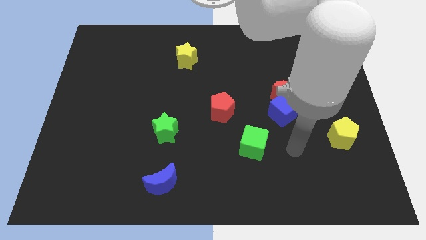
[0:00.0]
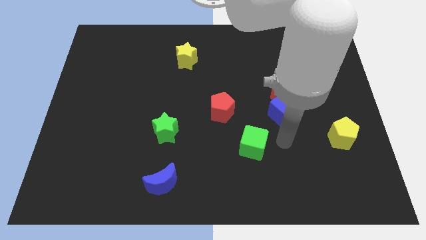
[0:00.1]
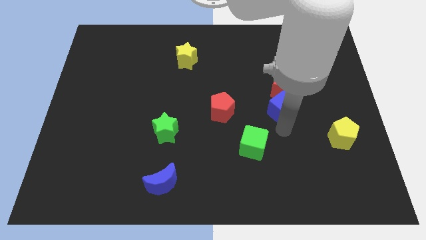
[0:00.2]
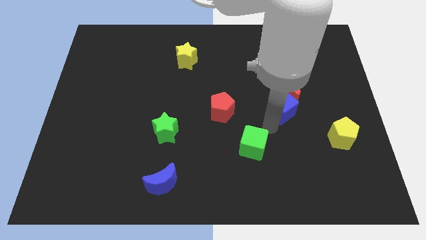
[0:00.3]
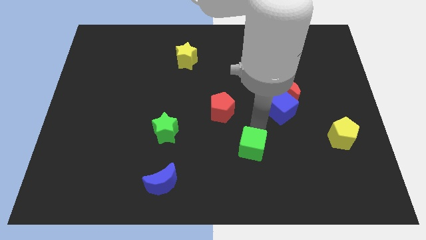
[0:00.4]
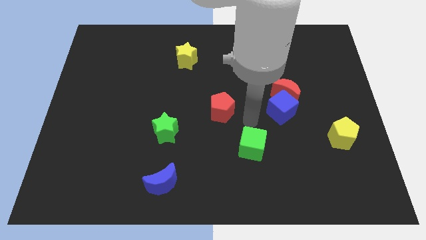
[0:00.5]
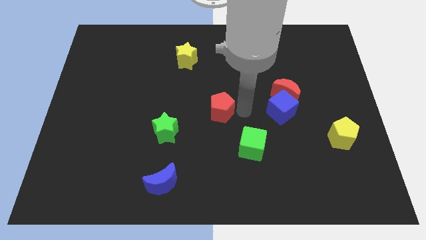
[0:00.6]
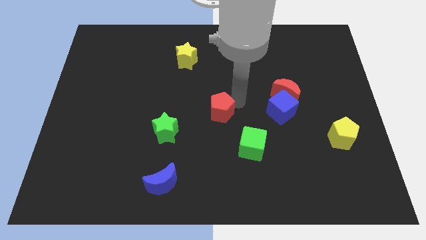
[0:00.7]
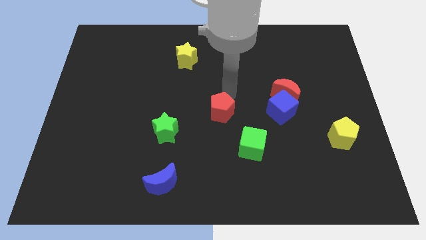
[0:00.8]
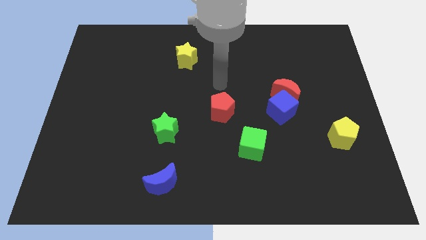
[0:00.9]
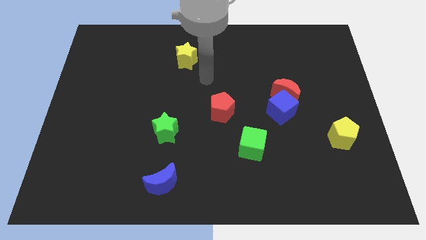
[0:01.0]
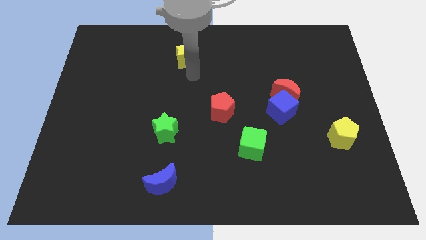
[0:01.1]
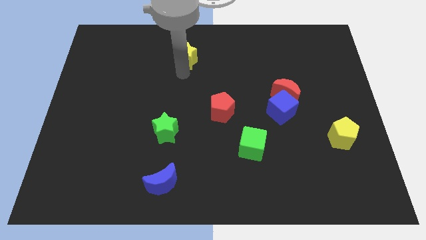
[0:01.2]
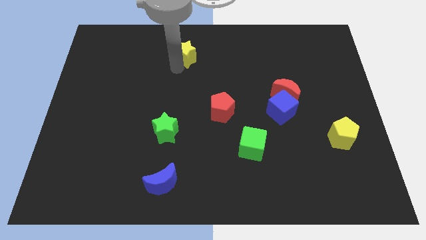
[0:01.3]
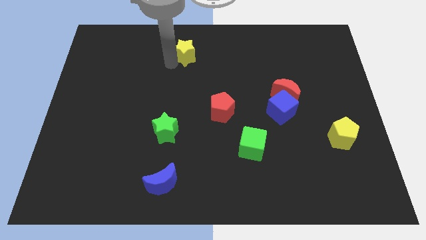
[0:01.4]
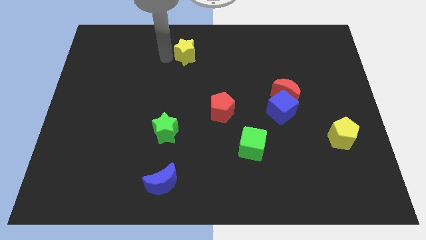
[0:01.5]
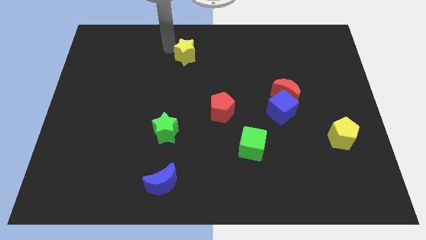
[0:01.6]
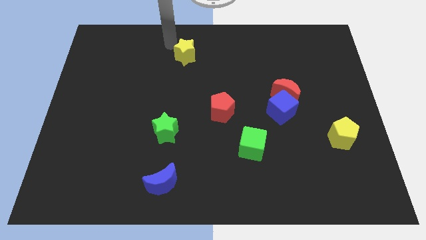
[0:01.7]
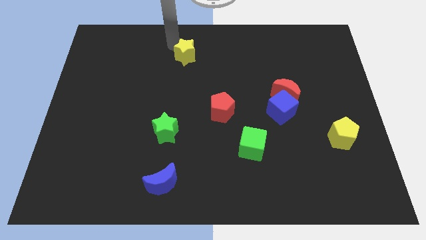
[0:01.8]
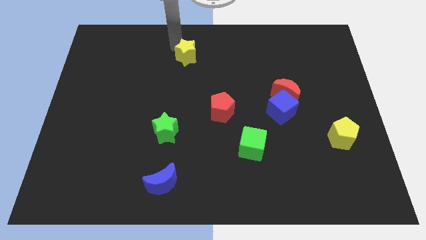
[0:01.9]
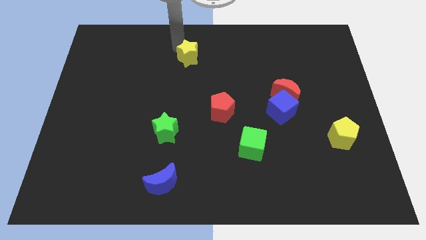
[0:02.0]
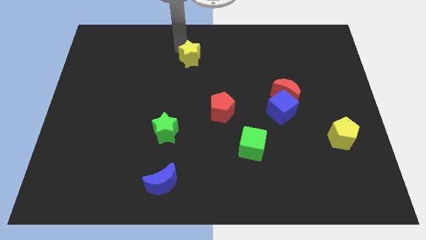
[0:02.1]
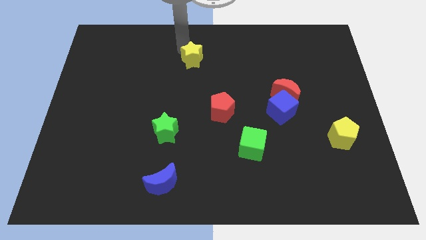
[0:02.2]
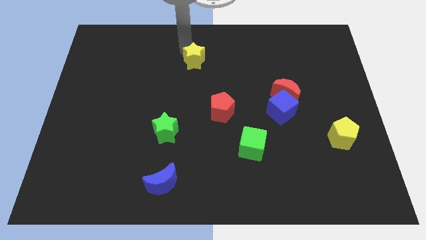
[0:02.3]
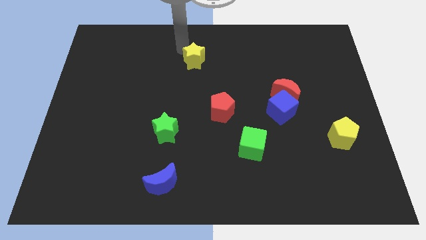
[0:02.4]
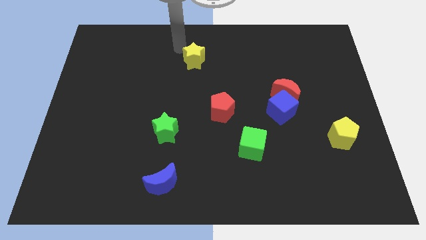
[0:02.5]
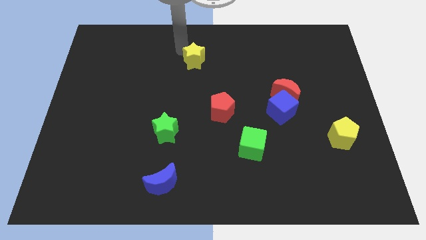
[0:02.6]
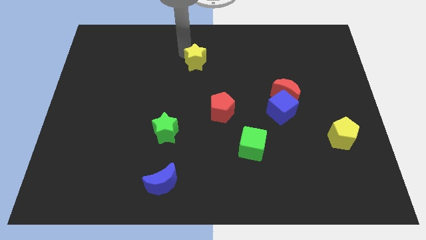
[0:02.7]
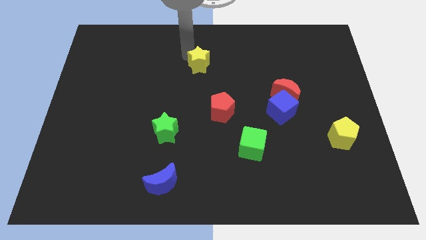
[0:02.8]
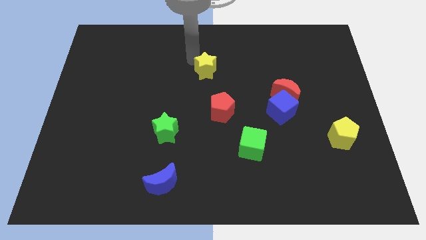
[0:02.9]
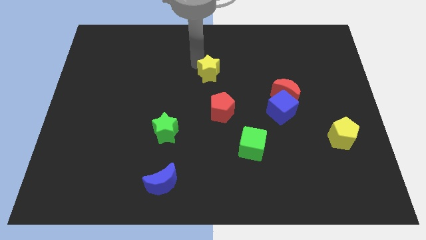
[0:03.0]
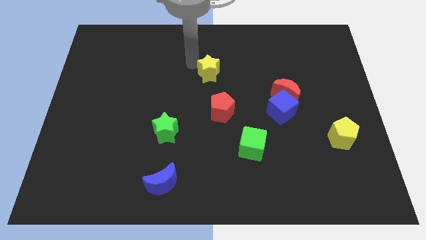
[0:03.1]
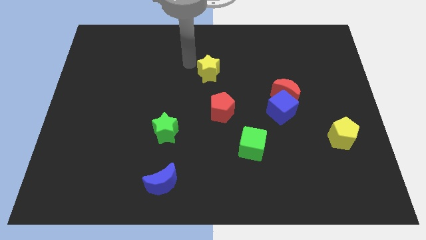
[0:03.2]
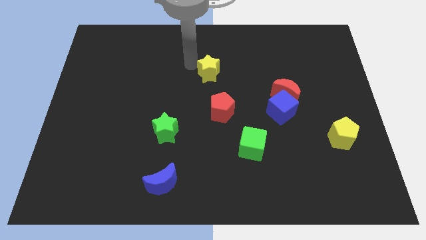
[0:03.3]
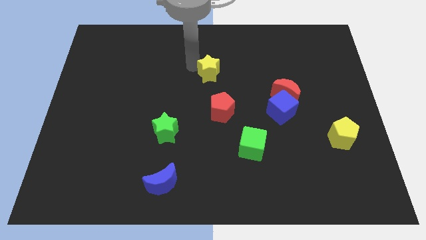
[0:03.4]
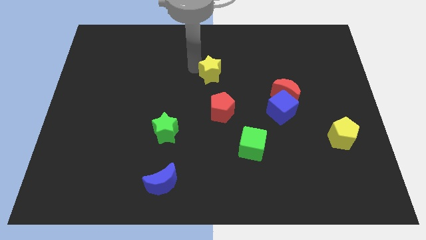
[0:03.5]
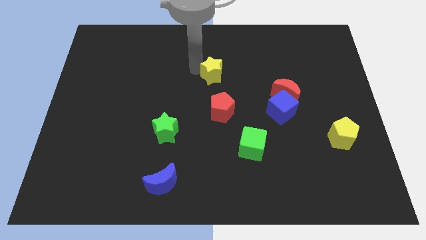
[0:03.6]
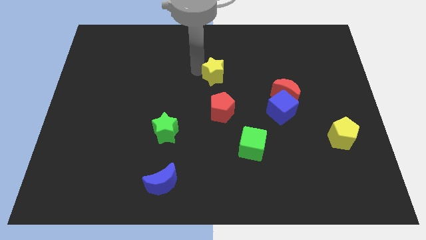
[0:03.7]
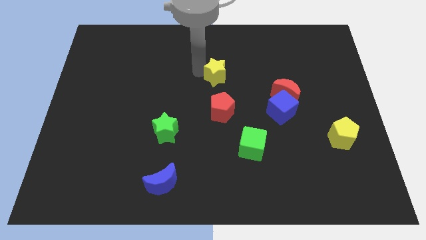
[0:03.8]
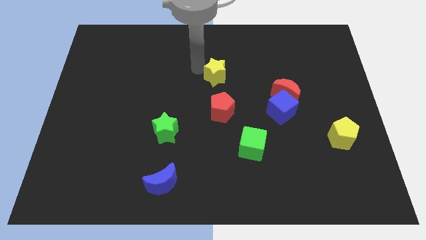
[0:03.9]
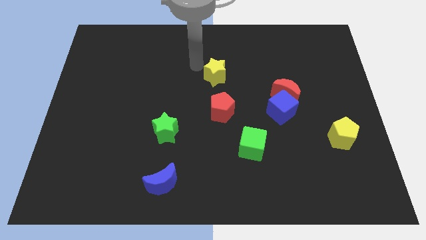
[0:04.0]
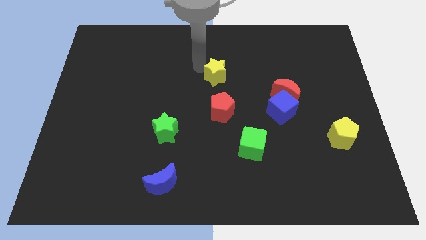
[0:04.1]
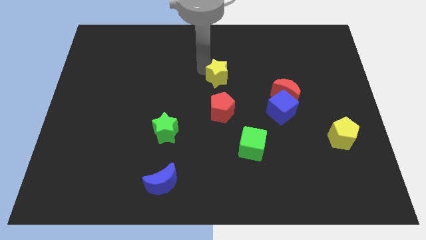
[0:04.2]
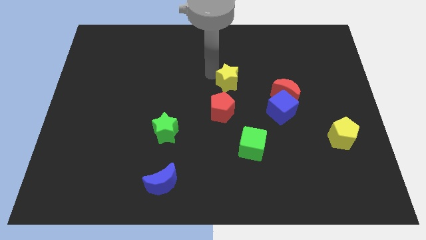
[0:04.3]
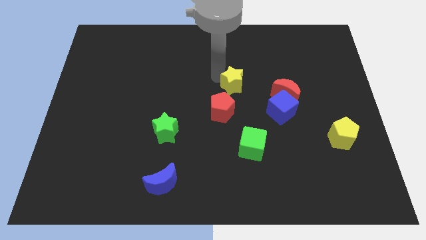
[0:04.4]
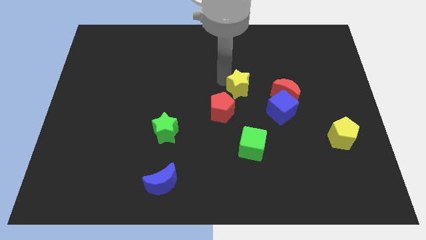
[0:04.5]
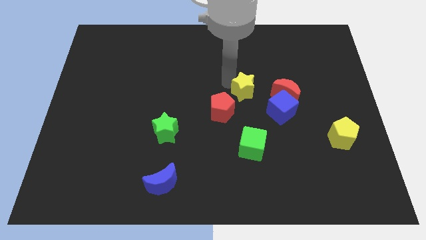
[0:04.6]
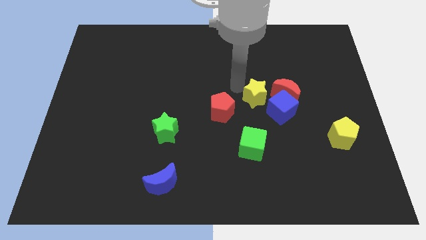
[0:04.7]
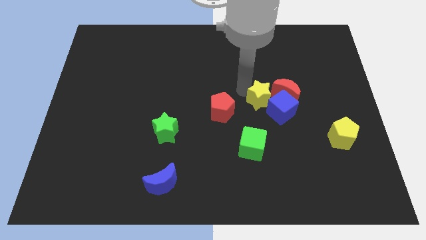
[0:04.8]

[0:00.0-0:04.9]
move the yellow star to the blue cube

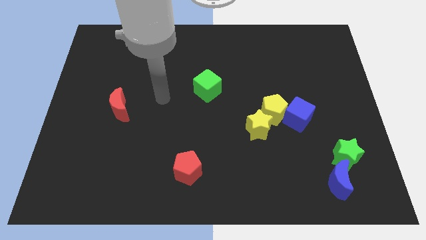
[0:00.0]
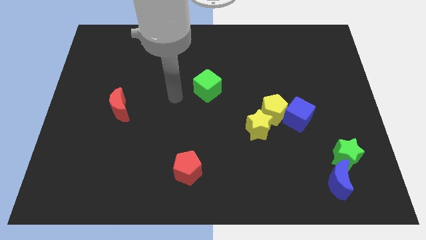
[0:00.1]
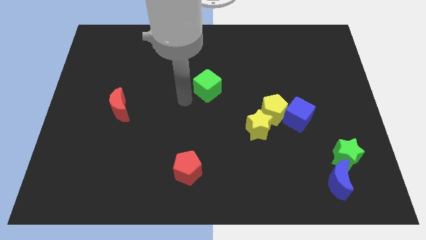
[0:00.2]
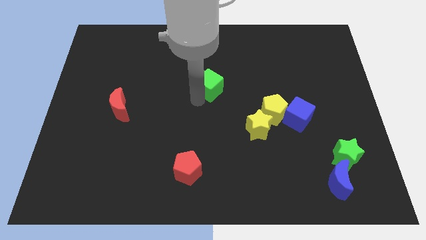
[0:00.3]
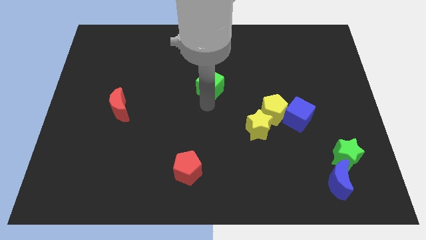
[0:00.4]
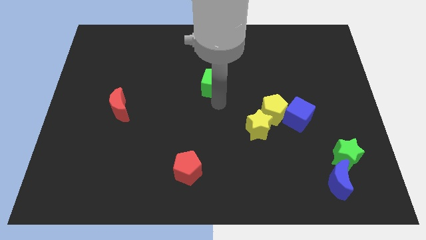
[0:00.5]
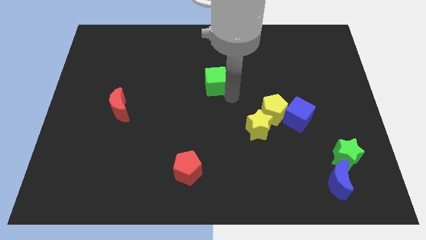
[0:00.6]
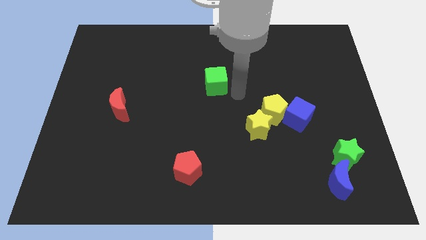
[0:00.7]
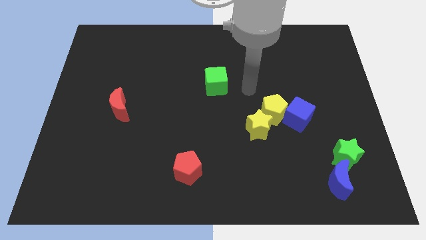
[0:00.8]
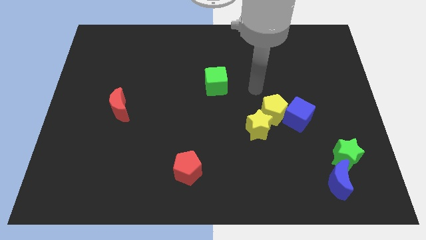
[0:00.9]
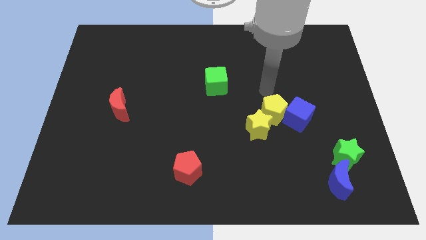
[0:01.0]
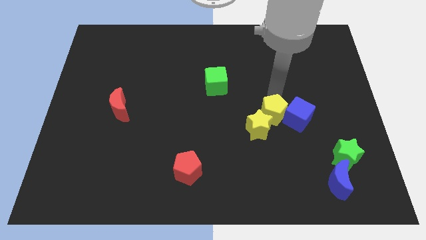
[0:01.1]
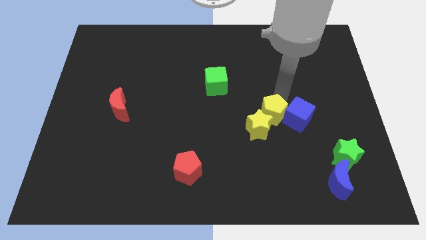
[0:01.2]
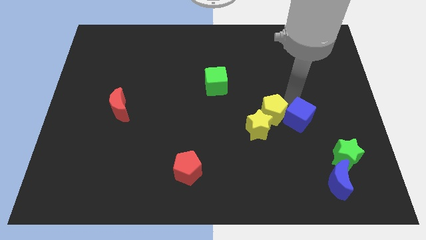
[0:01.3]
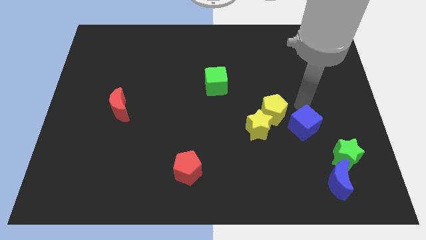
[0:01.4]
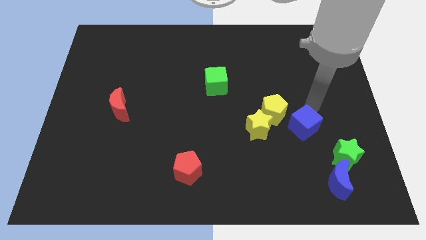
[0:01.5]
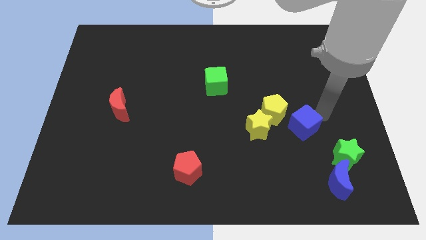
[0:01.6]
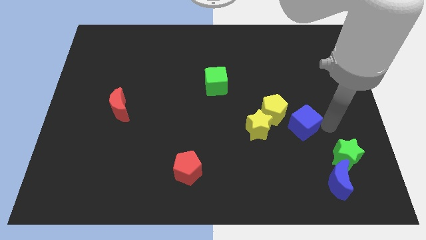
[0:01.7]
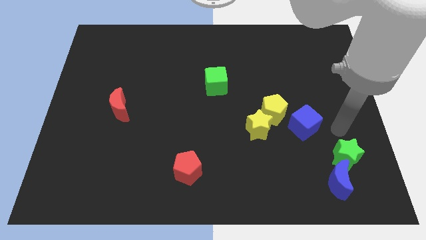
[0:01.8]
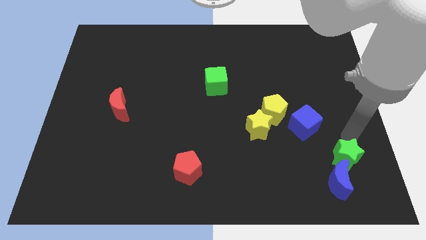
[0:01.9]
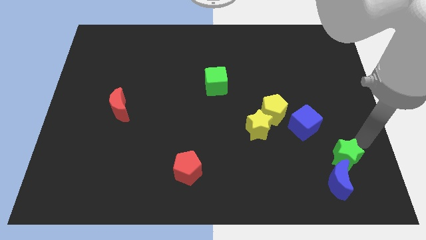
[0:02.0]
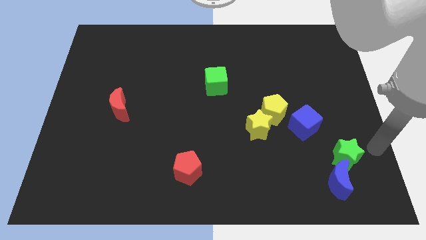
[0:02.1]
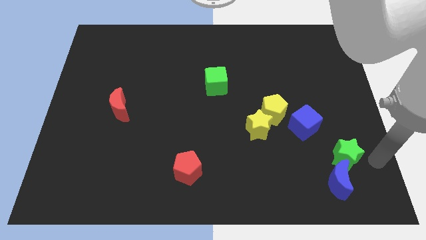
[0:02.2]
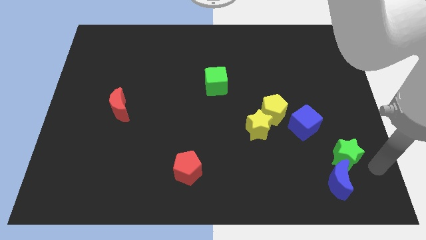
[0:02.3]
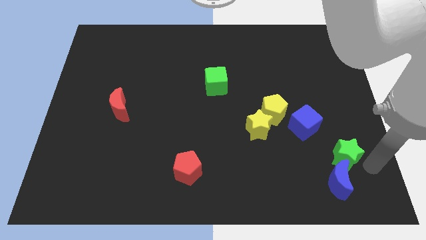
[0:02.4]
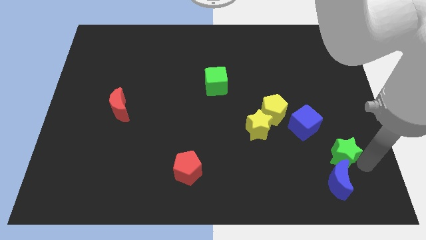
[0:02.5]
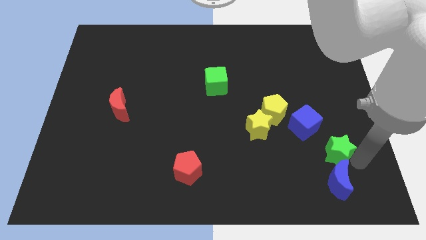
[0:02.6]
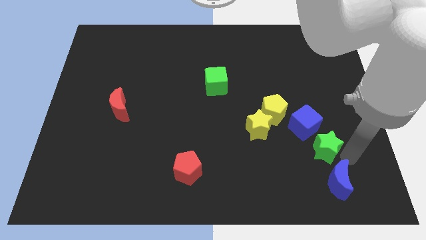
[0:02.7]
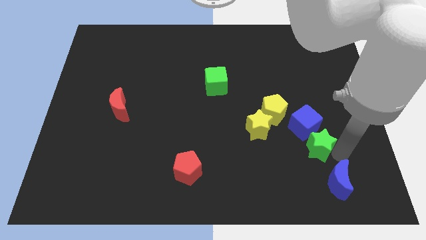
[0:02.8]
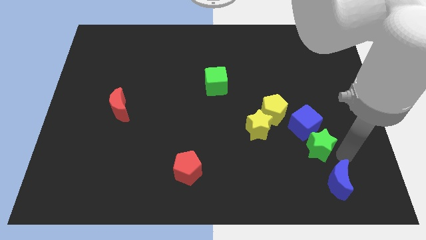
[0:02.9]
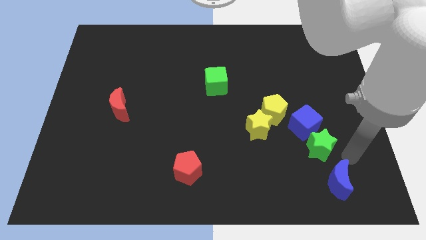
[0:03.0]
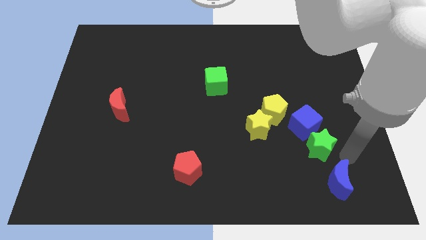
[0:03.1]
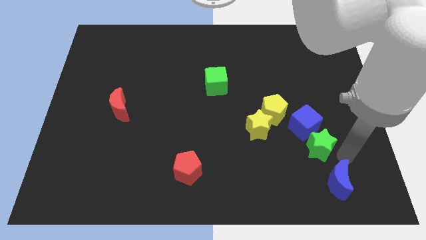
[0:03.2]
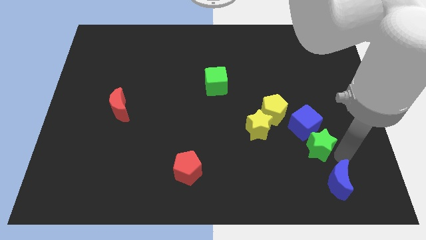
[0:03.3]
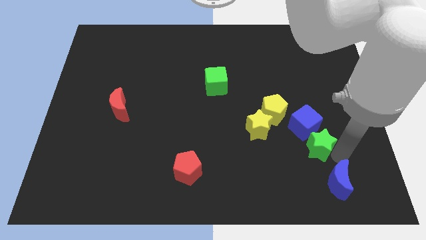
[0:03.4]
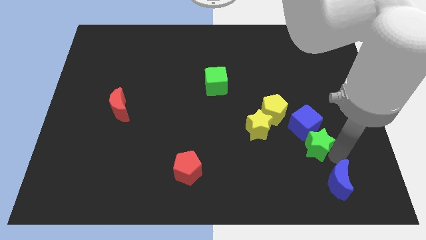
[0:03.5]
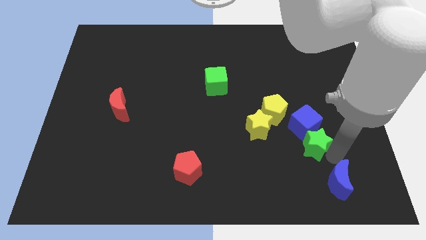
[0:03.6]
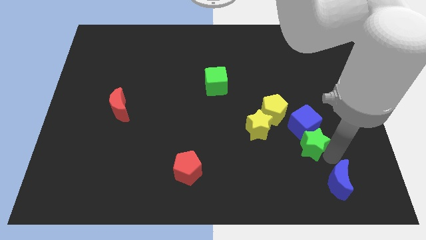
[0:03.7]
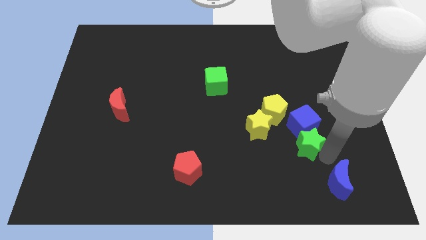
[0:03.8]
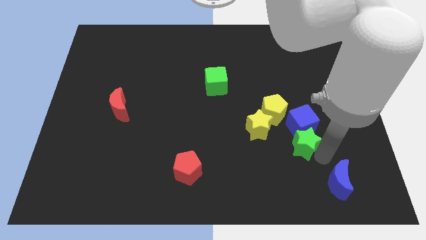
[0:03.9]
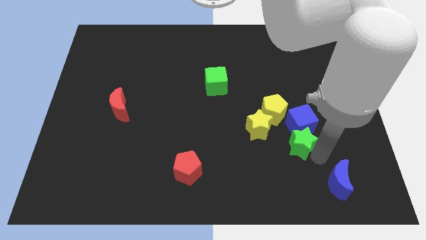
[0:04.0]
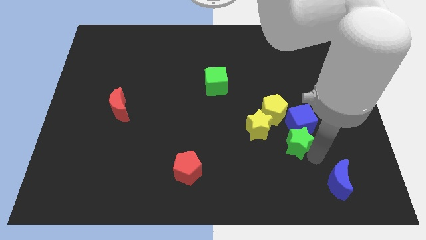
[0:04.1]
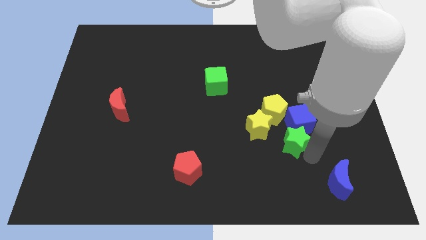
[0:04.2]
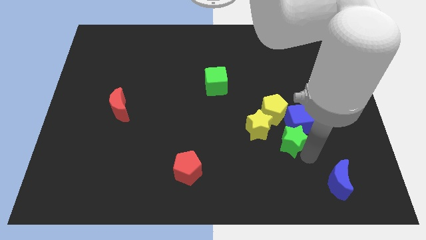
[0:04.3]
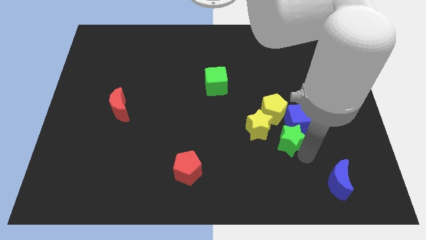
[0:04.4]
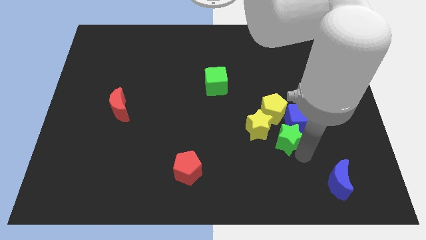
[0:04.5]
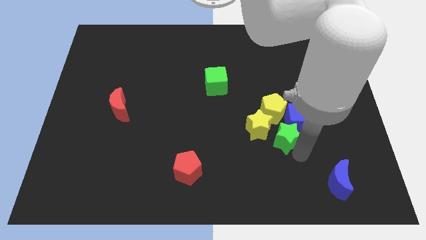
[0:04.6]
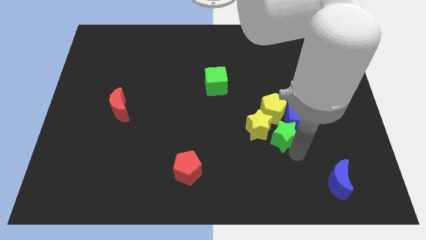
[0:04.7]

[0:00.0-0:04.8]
push the green star close to the yellow star
